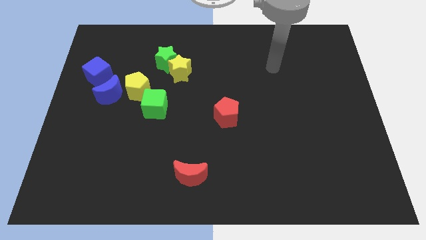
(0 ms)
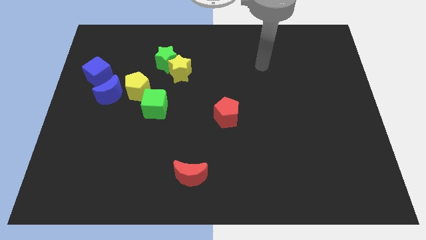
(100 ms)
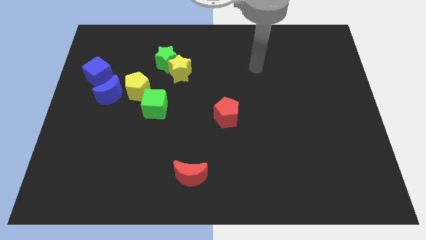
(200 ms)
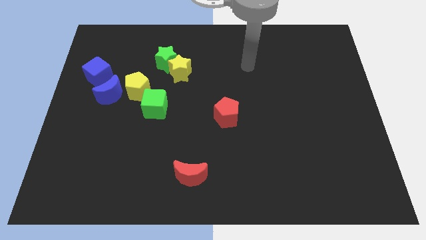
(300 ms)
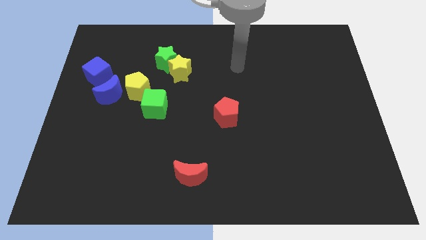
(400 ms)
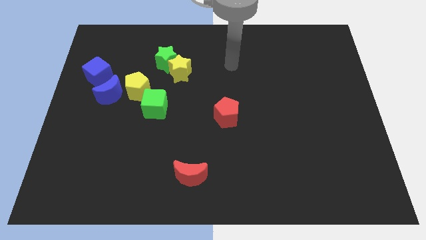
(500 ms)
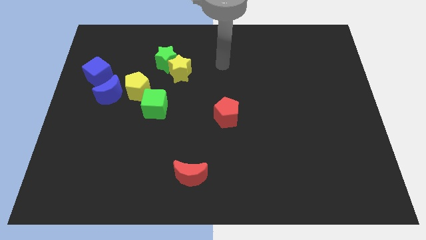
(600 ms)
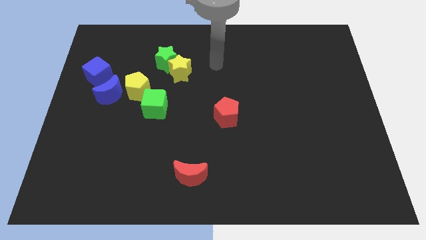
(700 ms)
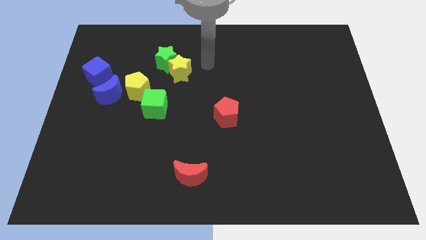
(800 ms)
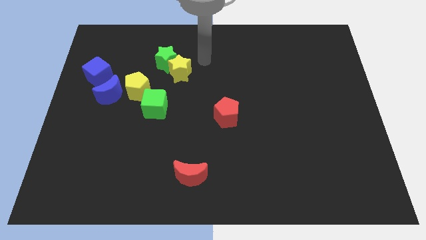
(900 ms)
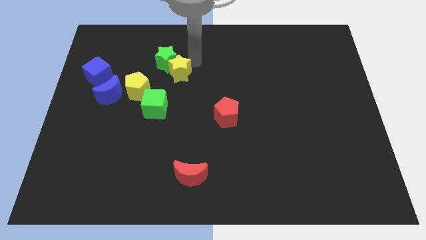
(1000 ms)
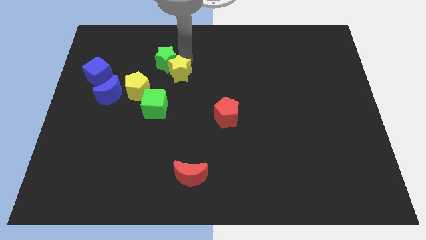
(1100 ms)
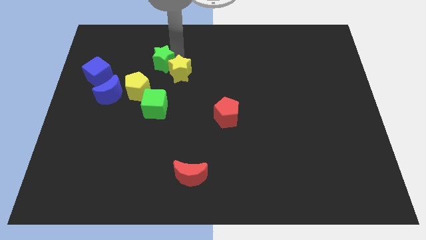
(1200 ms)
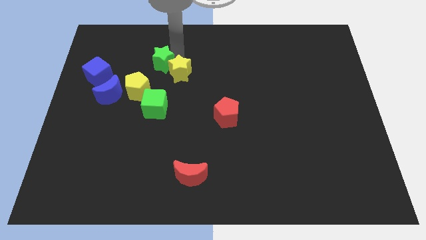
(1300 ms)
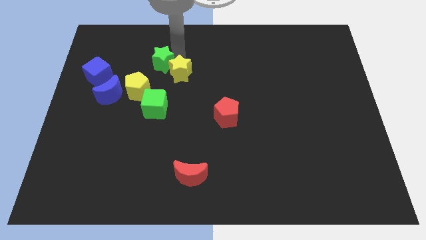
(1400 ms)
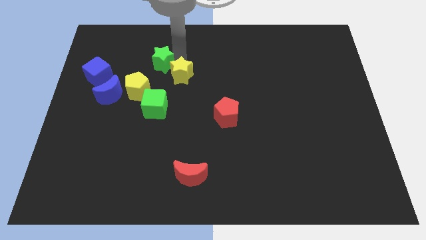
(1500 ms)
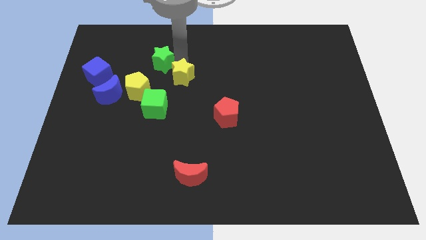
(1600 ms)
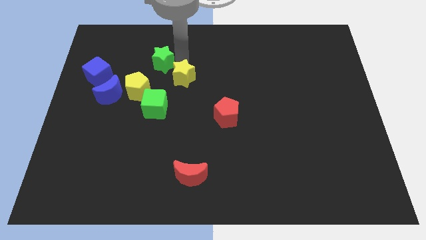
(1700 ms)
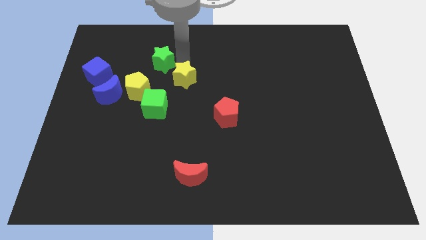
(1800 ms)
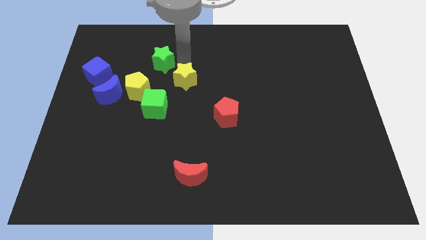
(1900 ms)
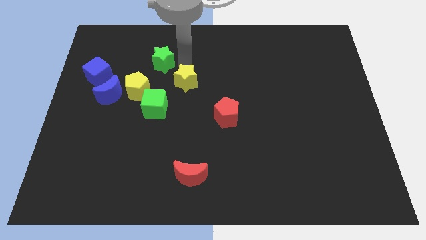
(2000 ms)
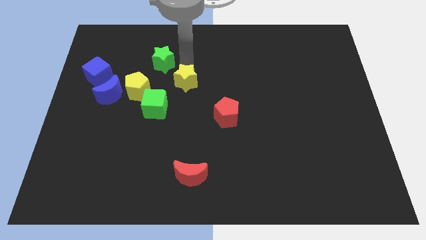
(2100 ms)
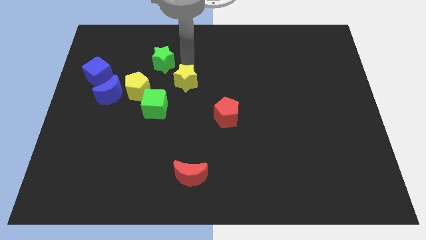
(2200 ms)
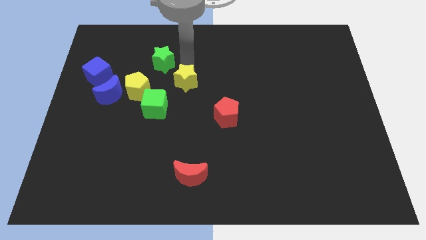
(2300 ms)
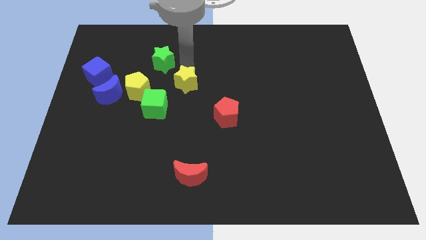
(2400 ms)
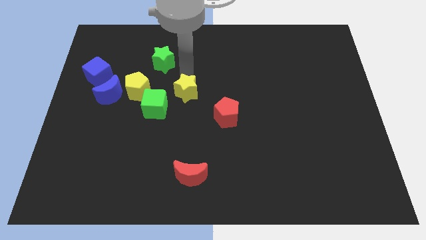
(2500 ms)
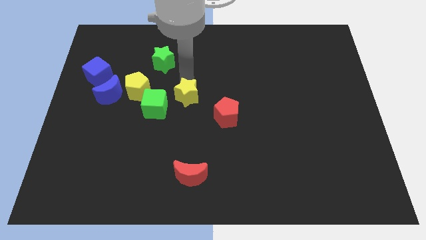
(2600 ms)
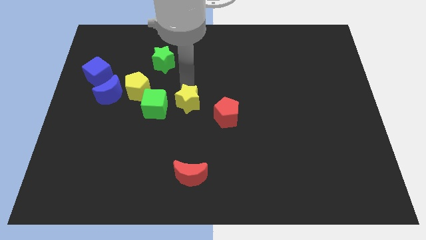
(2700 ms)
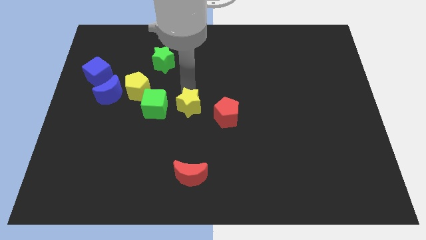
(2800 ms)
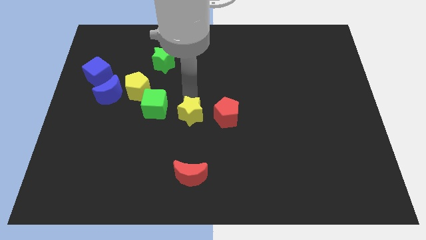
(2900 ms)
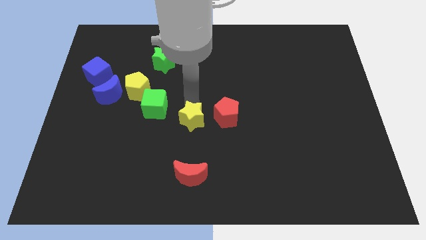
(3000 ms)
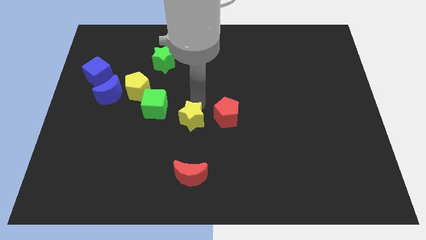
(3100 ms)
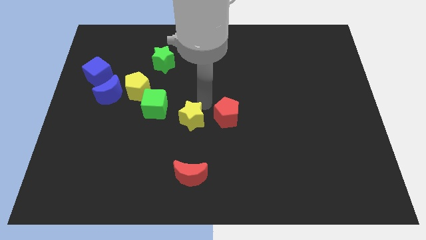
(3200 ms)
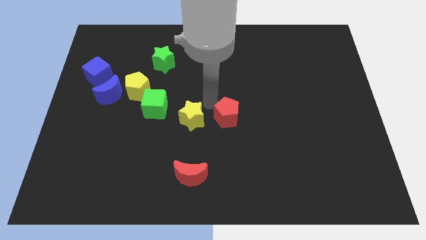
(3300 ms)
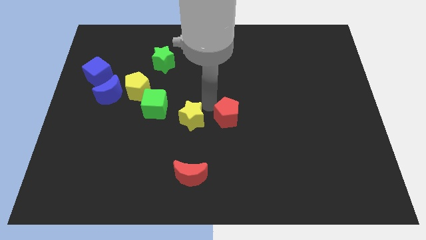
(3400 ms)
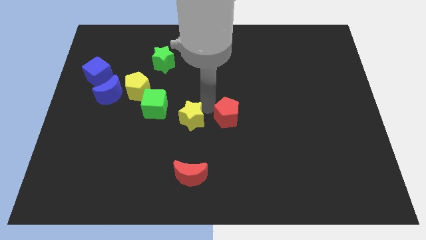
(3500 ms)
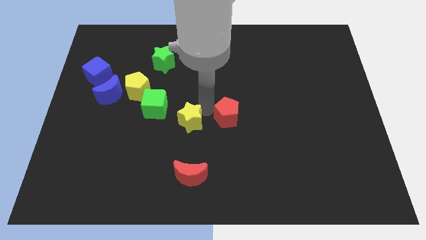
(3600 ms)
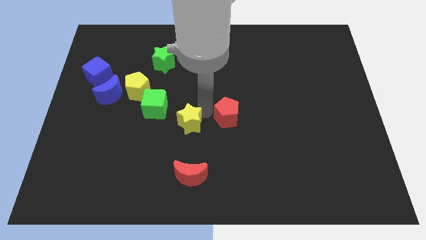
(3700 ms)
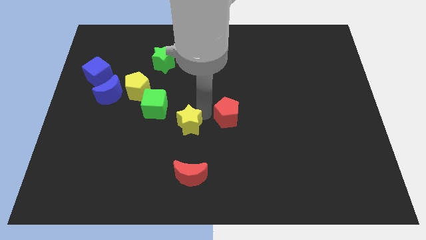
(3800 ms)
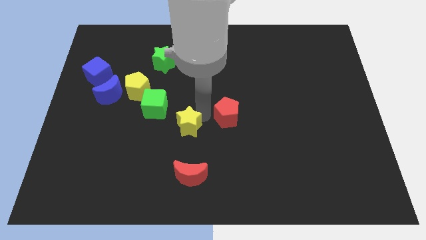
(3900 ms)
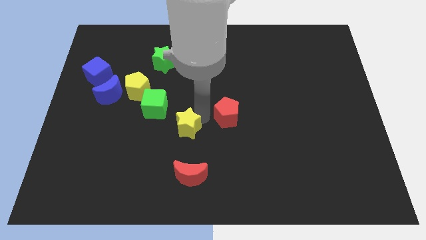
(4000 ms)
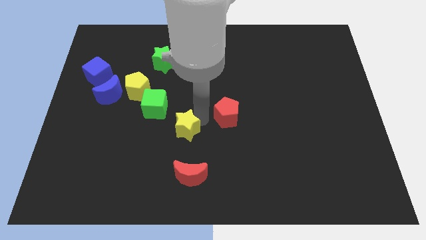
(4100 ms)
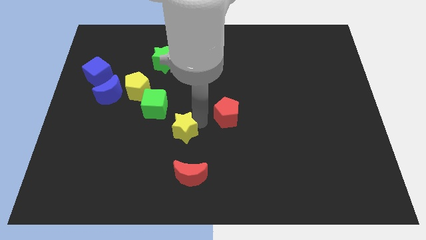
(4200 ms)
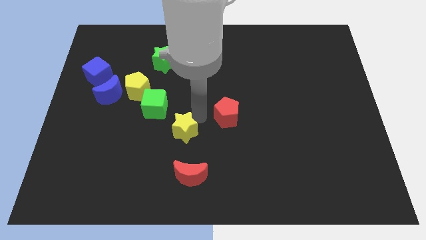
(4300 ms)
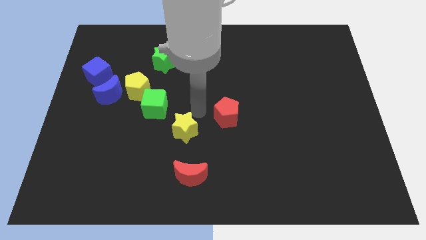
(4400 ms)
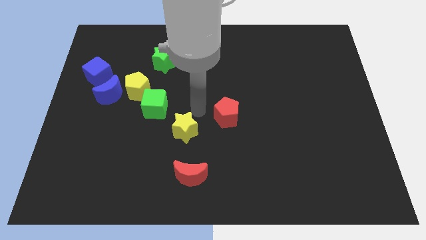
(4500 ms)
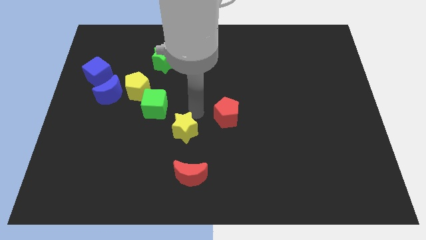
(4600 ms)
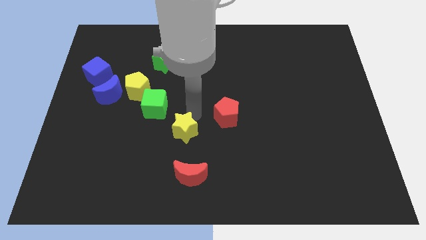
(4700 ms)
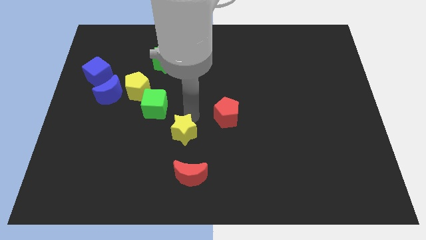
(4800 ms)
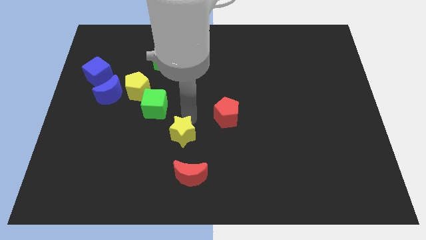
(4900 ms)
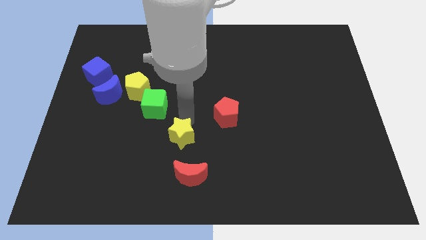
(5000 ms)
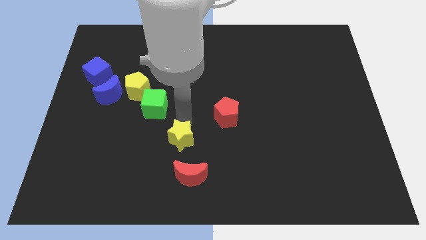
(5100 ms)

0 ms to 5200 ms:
push the yellow star diagonally up and to the left of the red moon

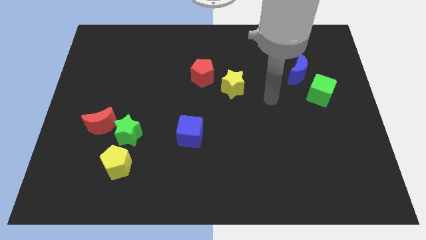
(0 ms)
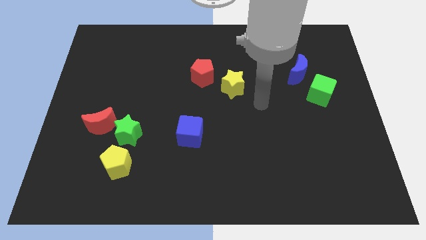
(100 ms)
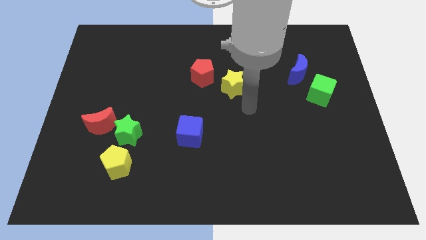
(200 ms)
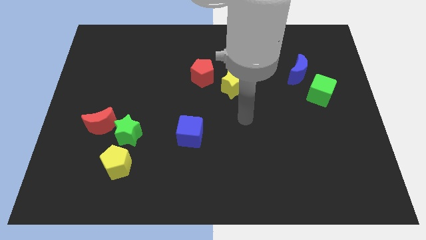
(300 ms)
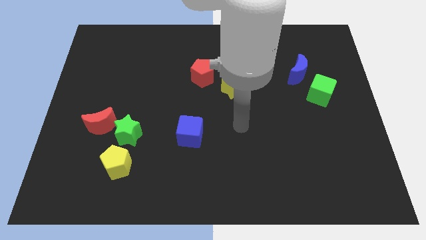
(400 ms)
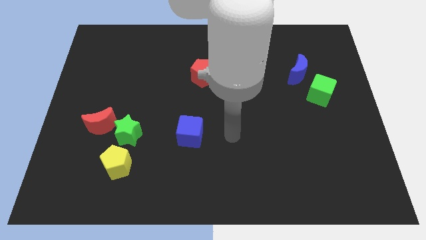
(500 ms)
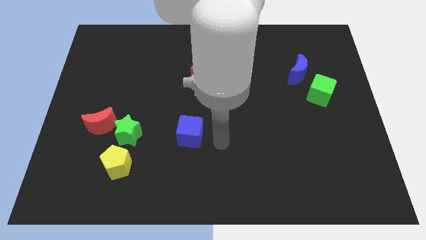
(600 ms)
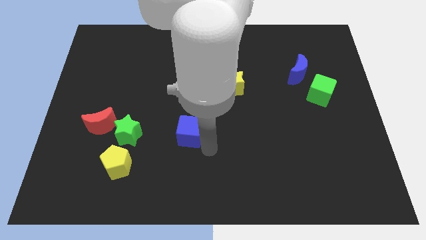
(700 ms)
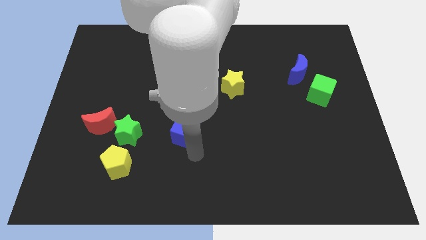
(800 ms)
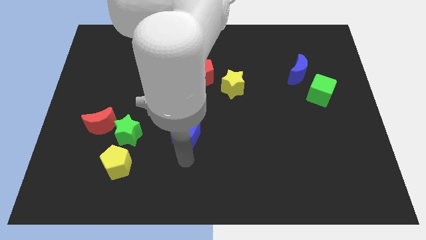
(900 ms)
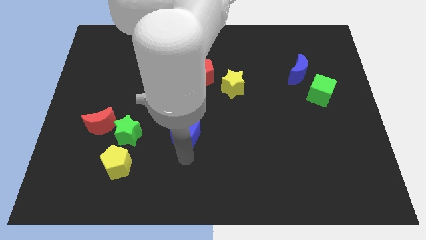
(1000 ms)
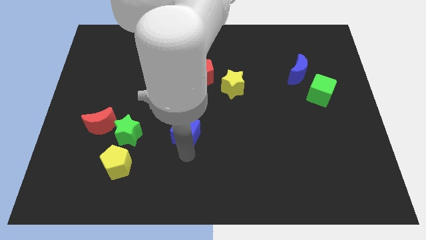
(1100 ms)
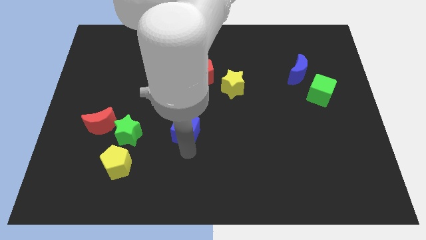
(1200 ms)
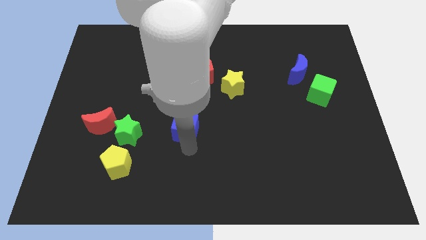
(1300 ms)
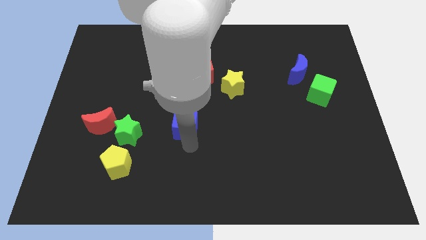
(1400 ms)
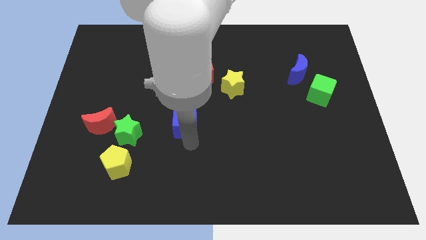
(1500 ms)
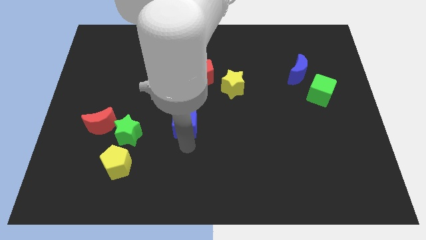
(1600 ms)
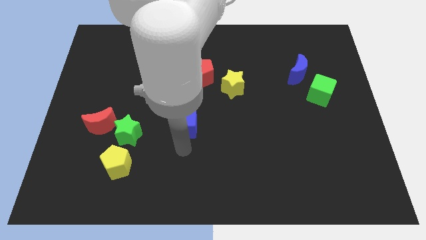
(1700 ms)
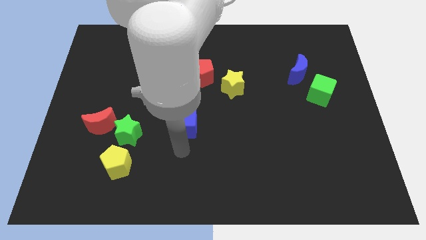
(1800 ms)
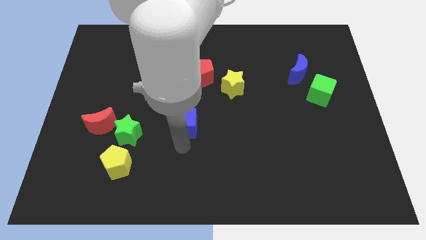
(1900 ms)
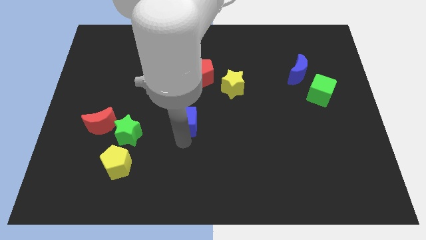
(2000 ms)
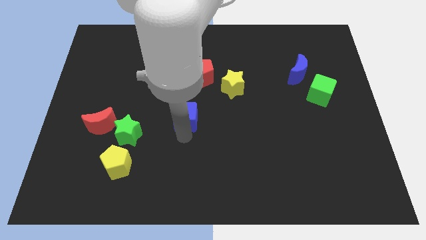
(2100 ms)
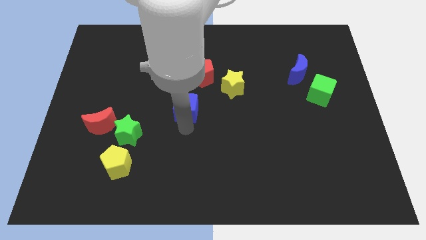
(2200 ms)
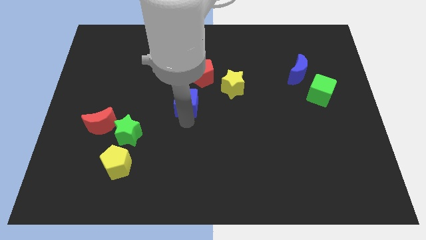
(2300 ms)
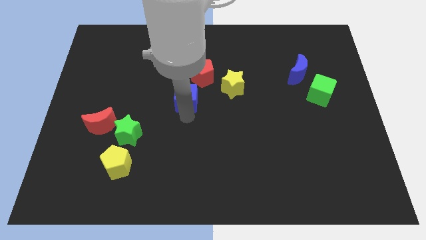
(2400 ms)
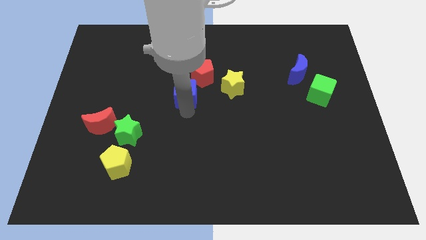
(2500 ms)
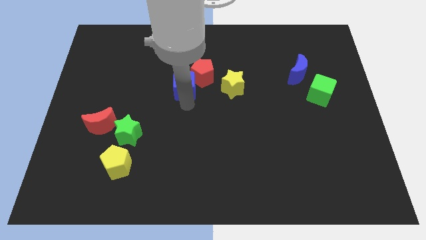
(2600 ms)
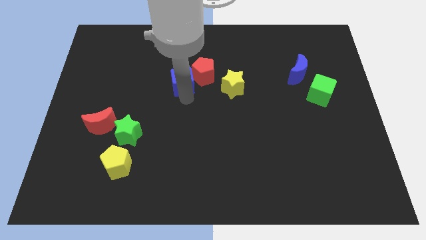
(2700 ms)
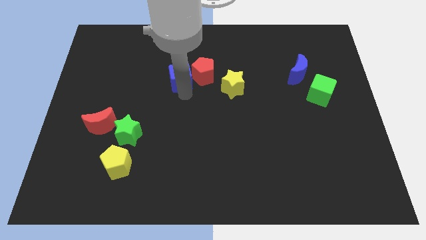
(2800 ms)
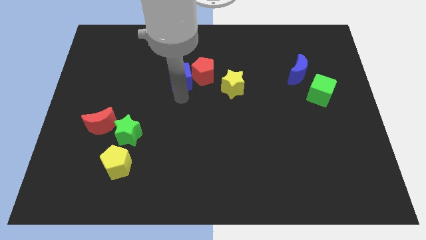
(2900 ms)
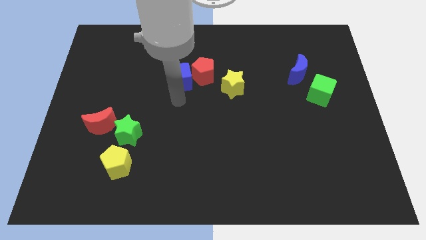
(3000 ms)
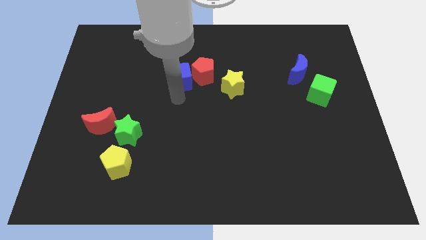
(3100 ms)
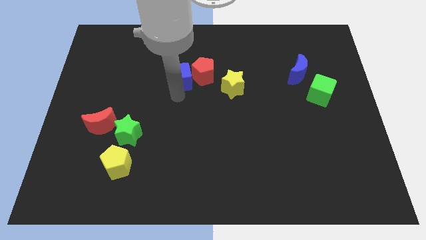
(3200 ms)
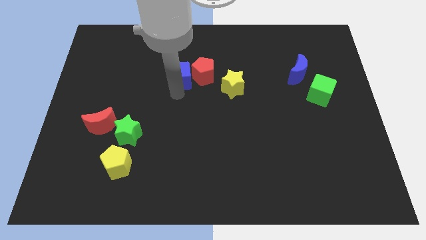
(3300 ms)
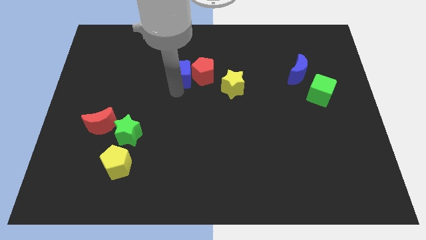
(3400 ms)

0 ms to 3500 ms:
move the blue cube diagonally up and to the left of the red pentagon
